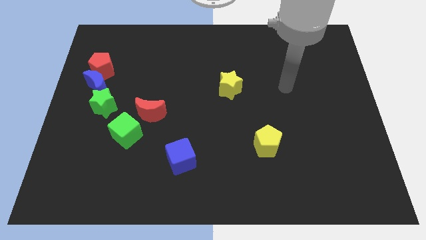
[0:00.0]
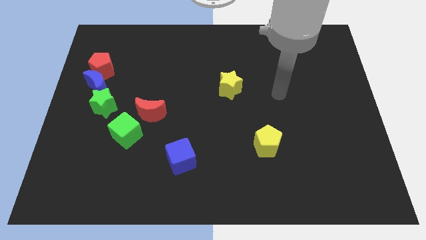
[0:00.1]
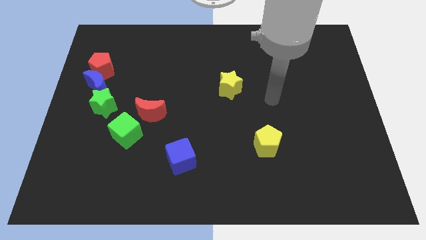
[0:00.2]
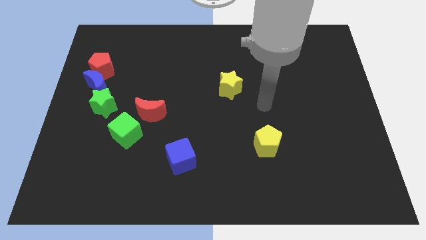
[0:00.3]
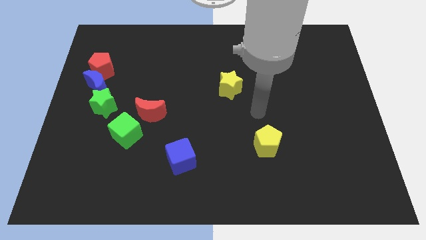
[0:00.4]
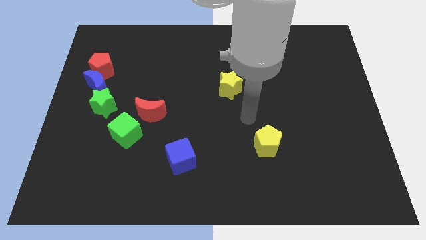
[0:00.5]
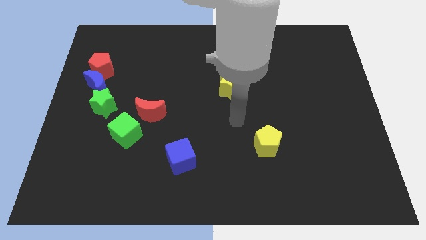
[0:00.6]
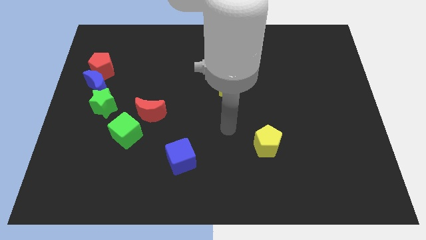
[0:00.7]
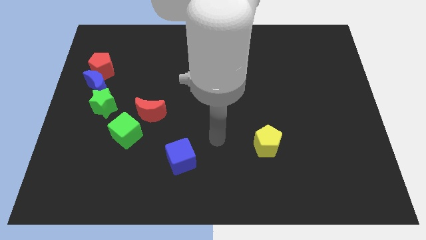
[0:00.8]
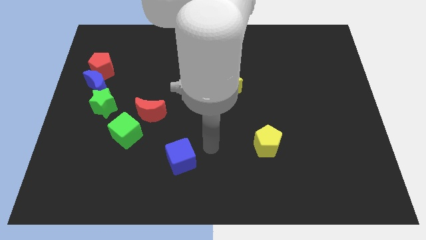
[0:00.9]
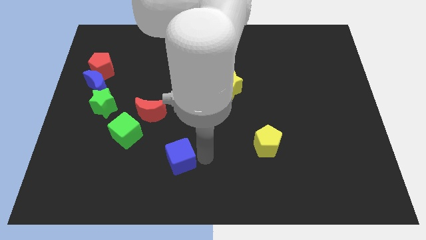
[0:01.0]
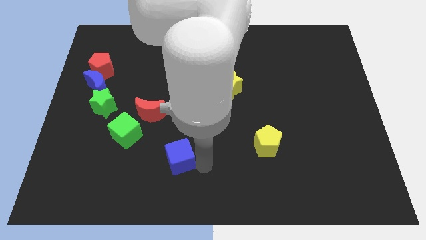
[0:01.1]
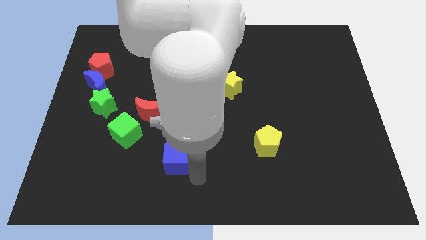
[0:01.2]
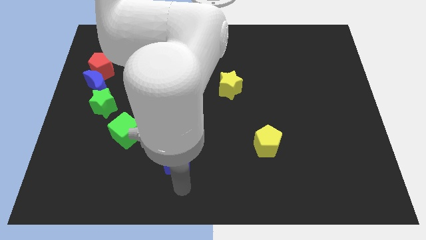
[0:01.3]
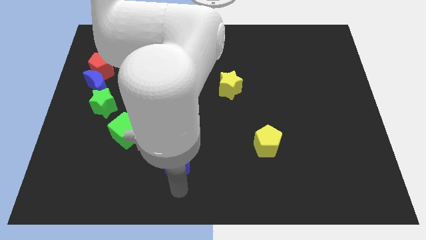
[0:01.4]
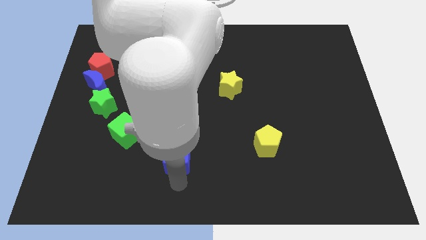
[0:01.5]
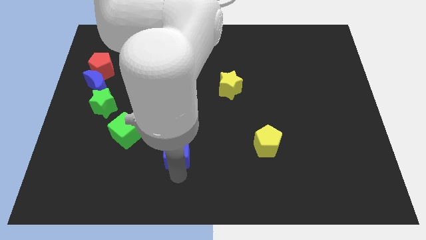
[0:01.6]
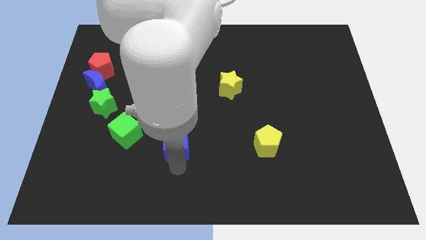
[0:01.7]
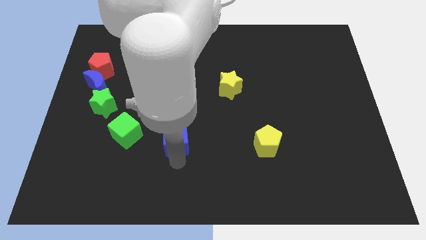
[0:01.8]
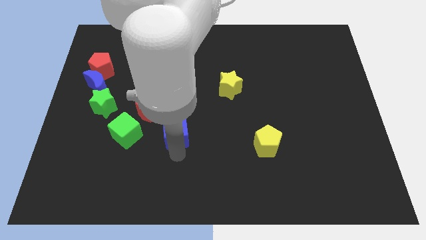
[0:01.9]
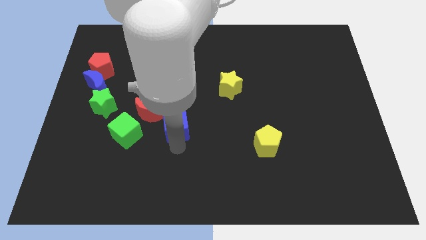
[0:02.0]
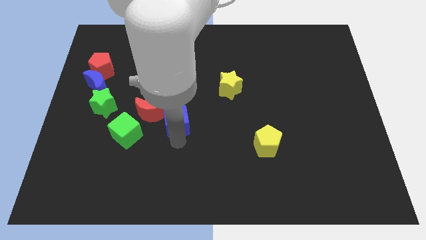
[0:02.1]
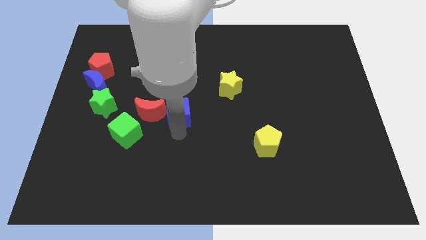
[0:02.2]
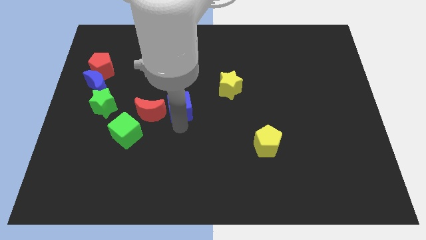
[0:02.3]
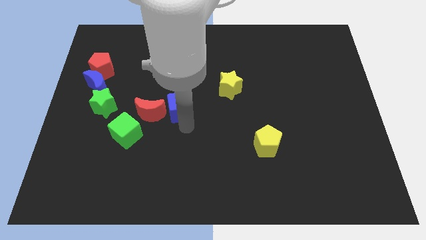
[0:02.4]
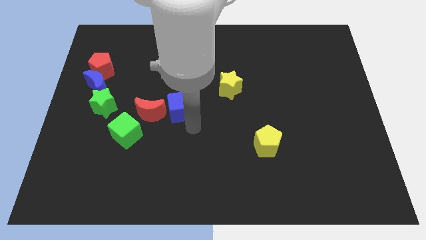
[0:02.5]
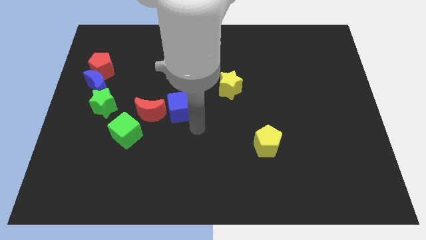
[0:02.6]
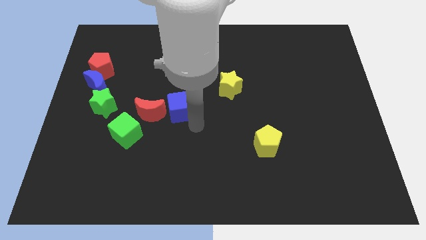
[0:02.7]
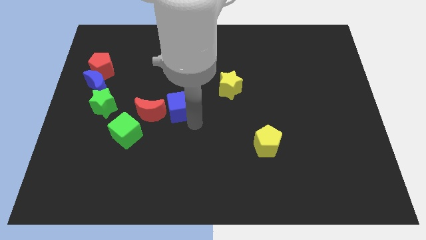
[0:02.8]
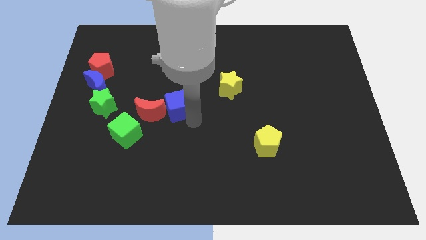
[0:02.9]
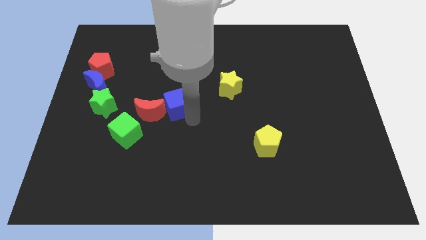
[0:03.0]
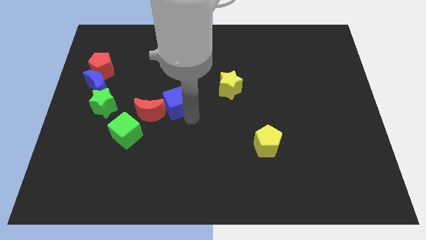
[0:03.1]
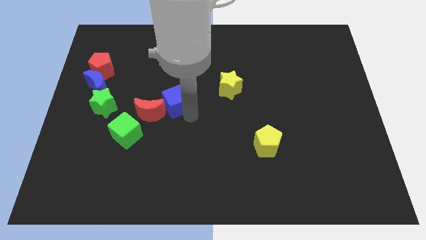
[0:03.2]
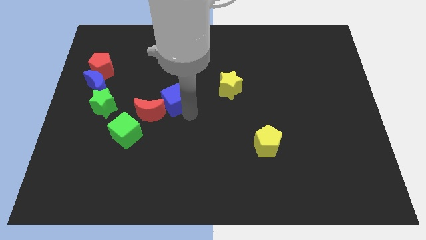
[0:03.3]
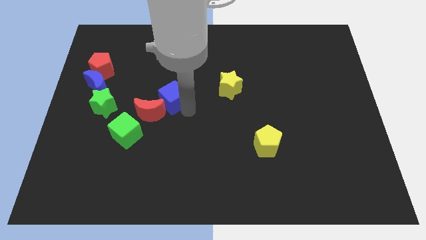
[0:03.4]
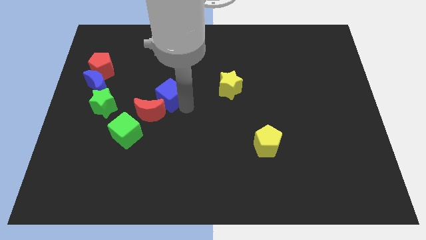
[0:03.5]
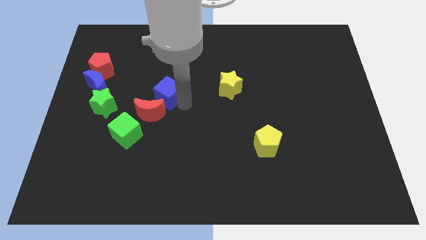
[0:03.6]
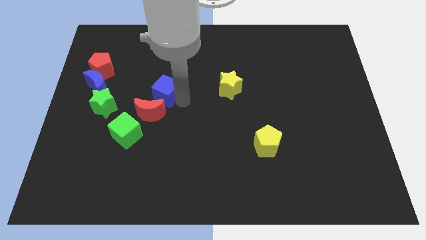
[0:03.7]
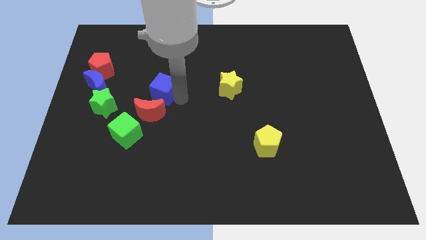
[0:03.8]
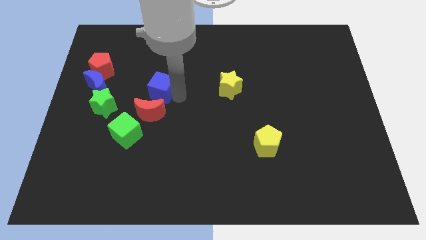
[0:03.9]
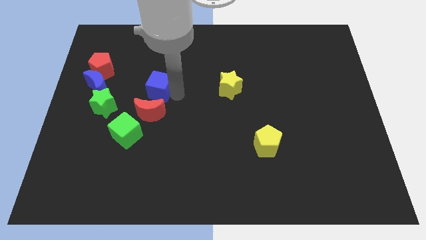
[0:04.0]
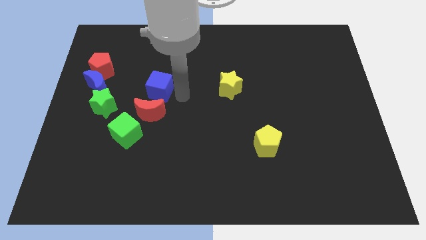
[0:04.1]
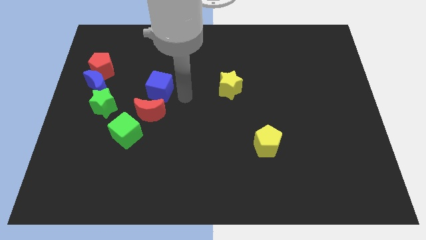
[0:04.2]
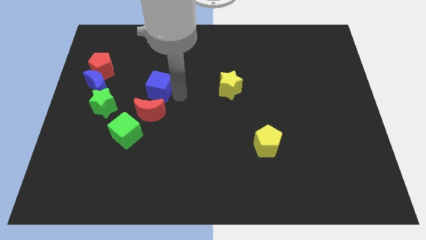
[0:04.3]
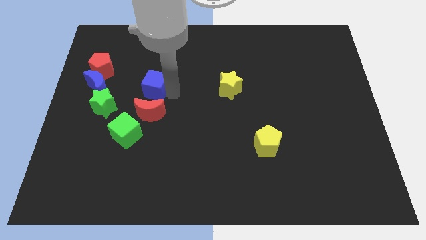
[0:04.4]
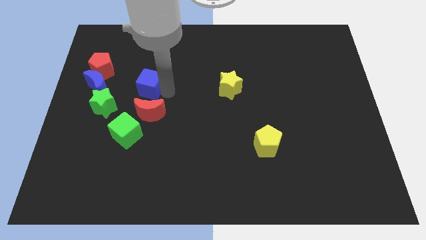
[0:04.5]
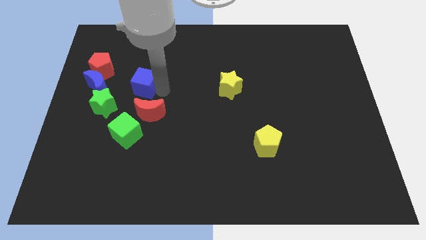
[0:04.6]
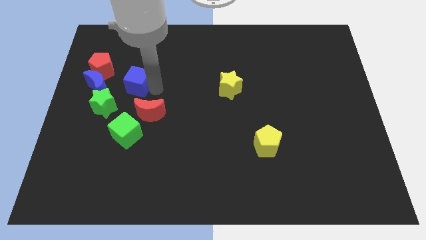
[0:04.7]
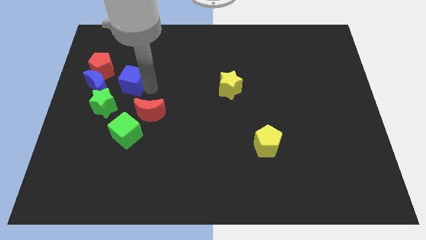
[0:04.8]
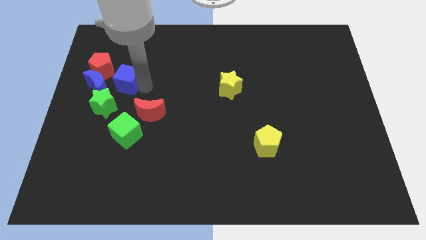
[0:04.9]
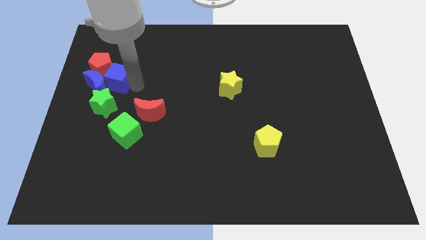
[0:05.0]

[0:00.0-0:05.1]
put the blue cube next to the red pentagon

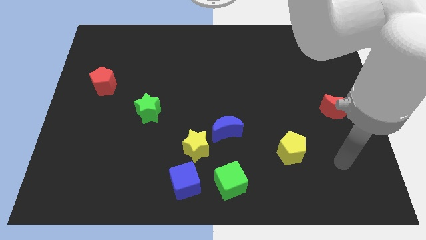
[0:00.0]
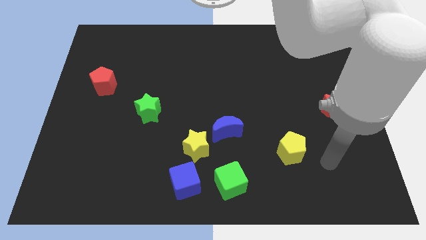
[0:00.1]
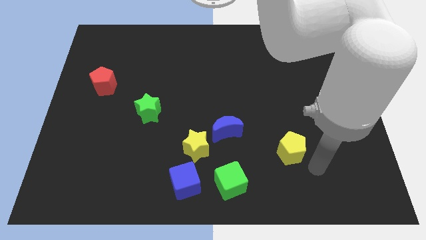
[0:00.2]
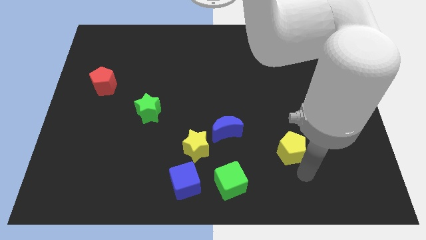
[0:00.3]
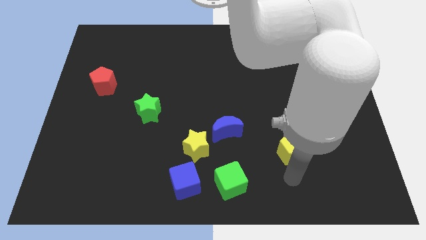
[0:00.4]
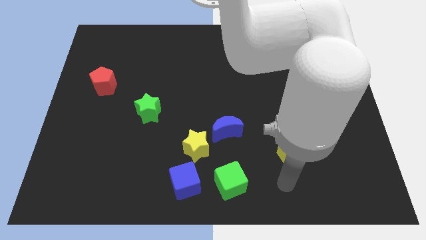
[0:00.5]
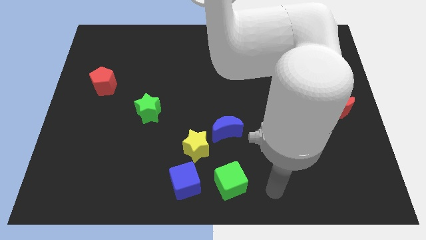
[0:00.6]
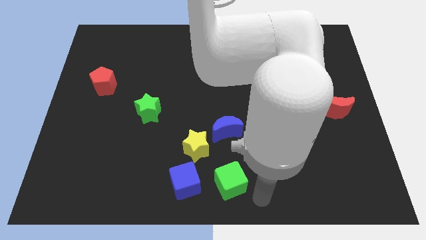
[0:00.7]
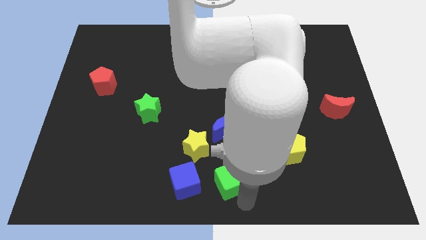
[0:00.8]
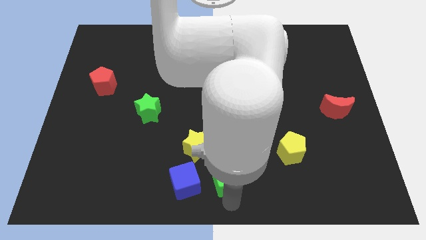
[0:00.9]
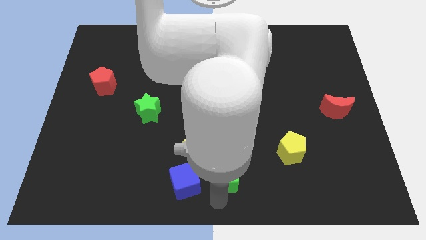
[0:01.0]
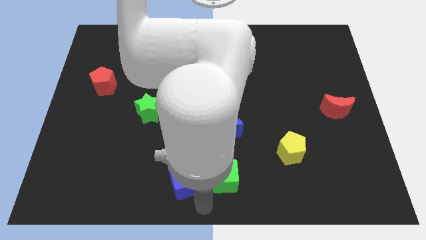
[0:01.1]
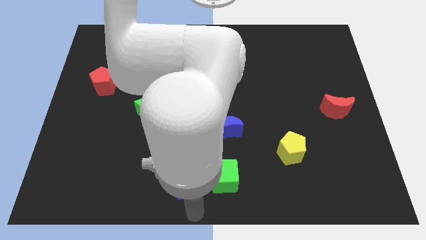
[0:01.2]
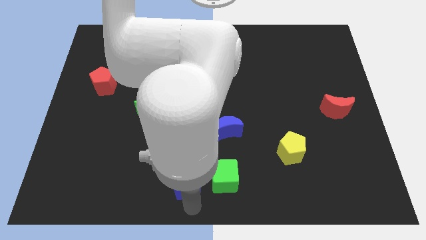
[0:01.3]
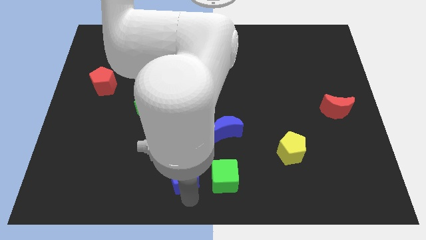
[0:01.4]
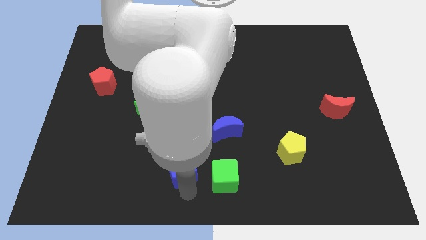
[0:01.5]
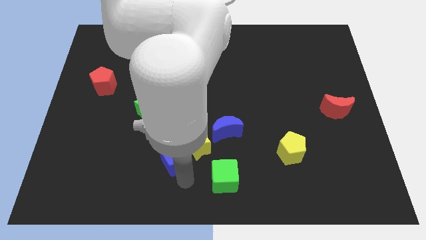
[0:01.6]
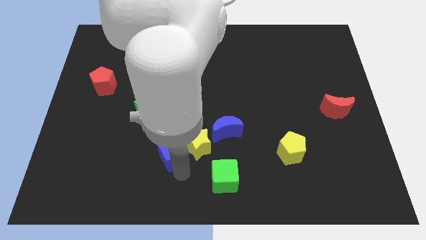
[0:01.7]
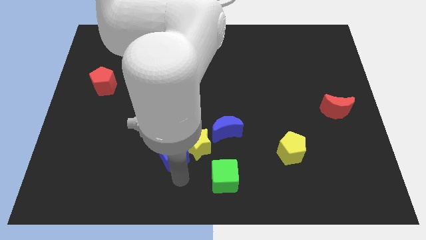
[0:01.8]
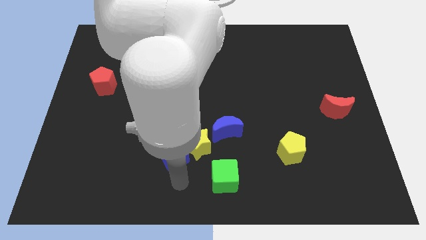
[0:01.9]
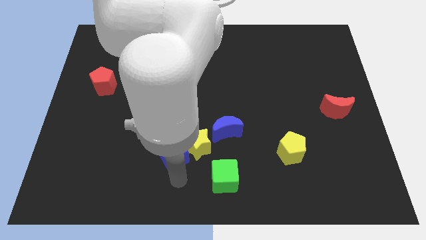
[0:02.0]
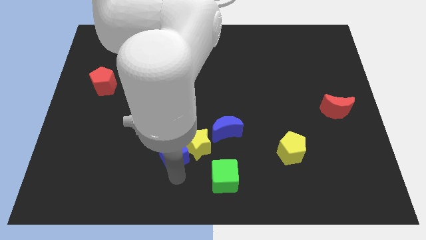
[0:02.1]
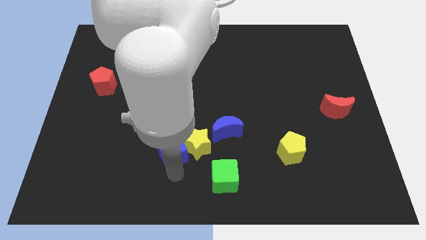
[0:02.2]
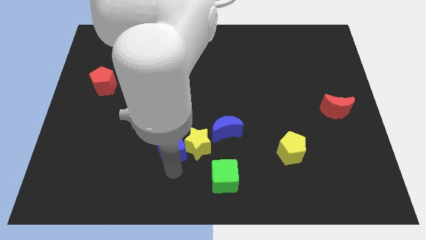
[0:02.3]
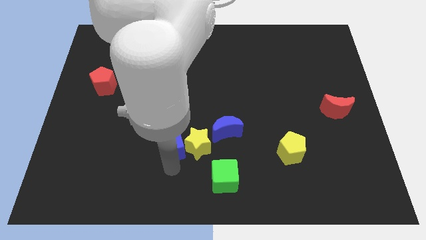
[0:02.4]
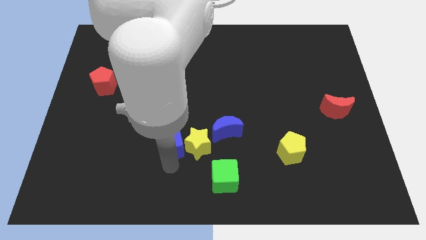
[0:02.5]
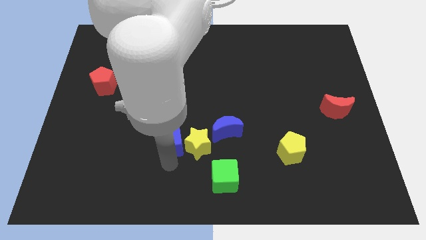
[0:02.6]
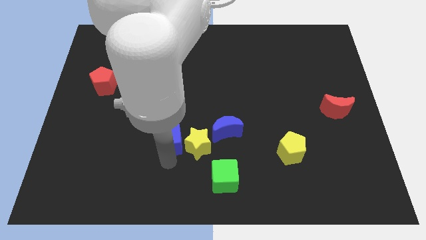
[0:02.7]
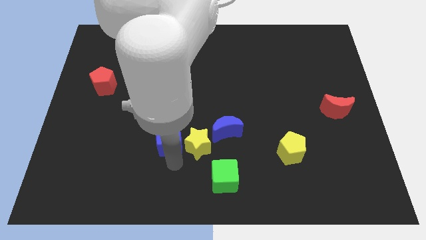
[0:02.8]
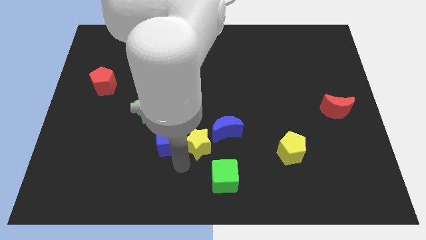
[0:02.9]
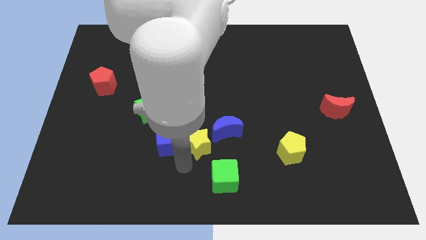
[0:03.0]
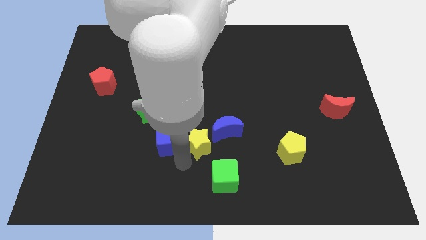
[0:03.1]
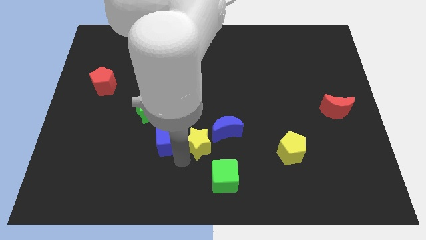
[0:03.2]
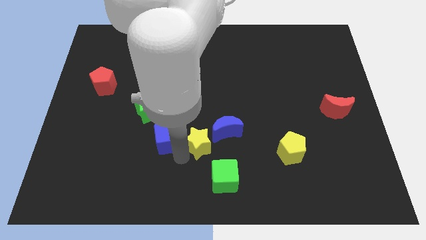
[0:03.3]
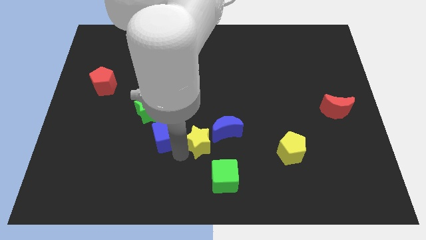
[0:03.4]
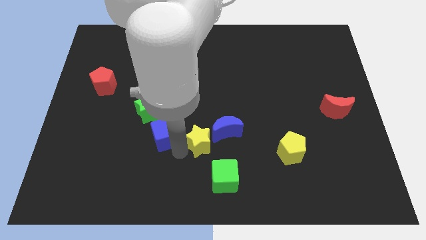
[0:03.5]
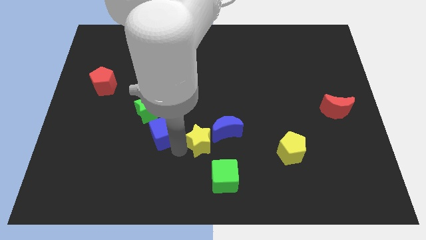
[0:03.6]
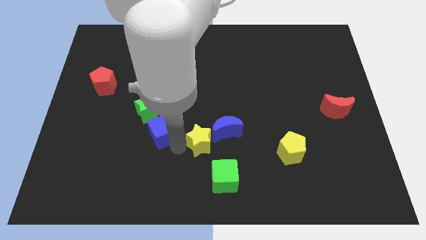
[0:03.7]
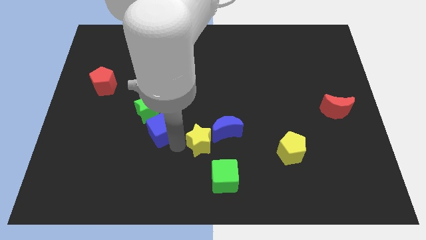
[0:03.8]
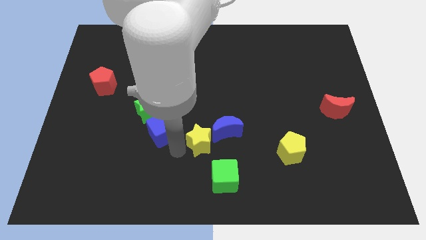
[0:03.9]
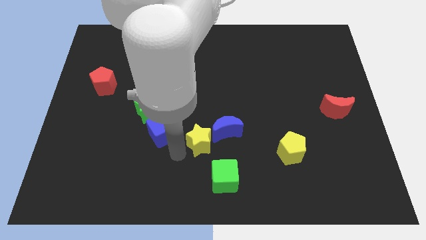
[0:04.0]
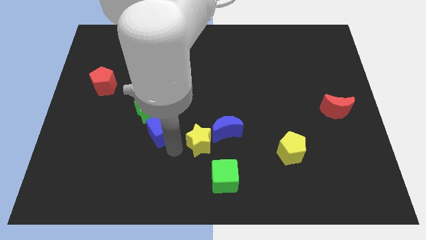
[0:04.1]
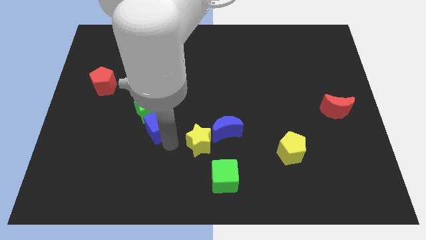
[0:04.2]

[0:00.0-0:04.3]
move the blue cube close to the green star
